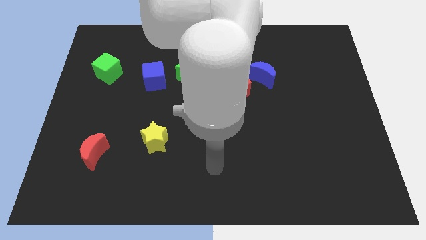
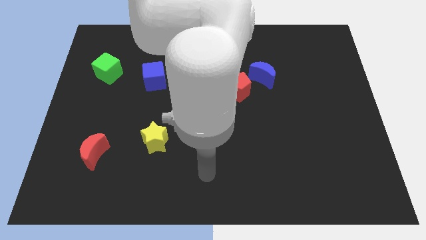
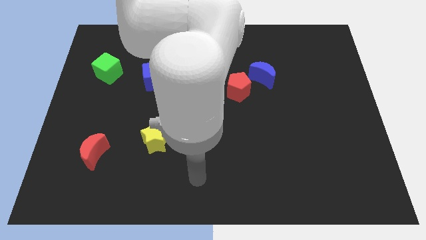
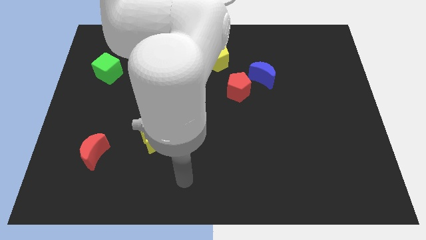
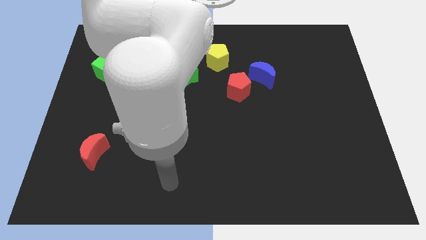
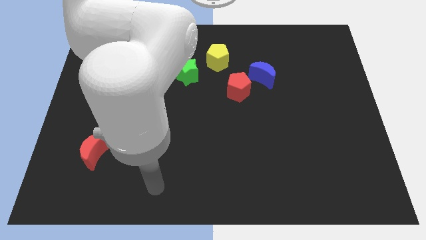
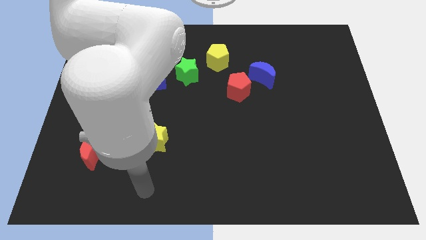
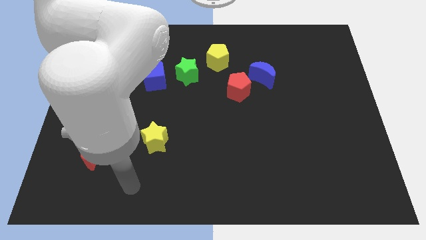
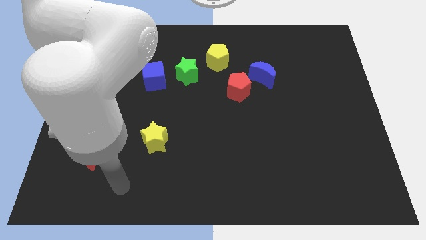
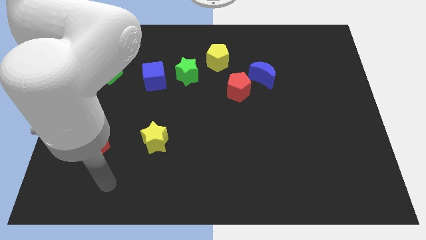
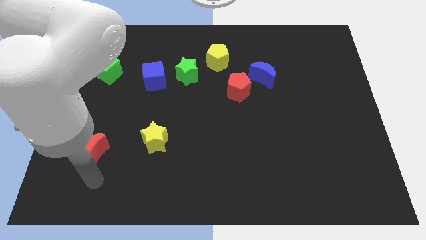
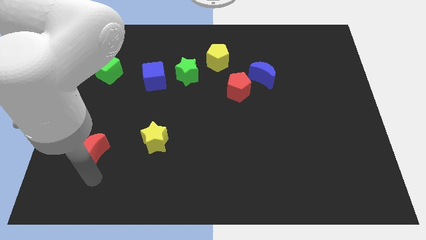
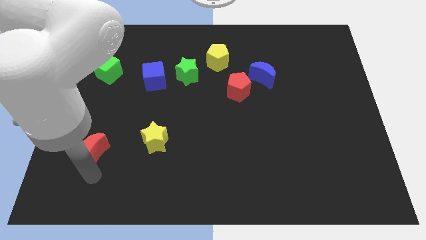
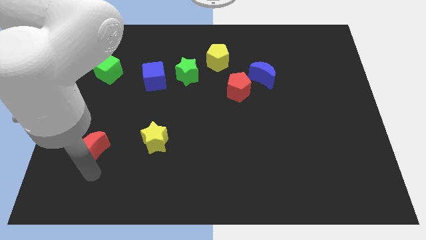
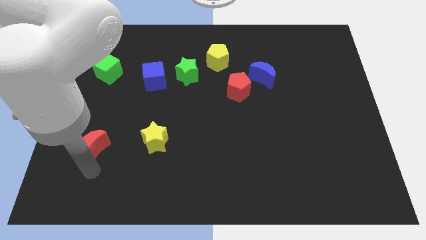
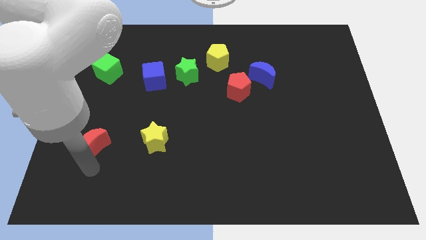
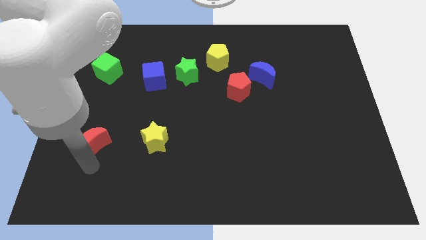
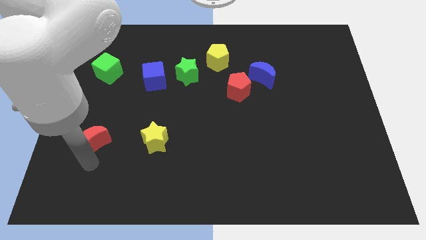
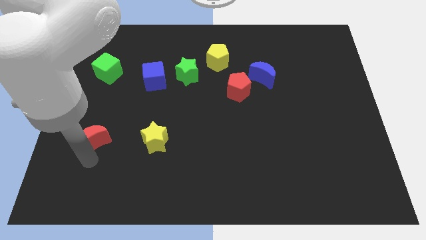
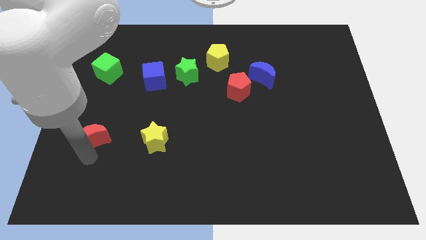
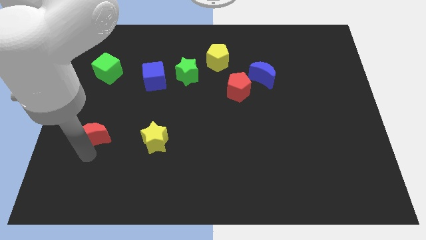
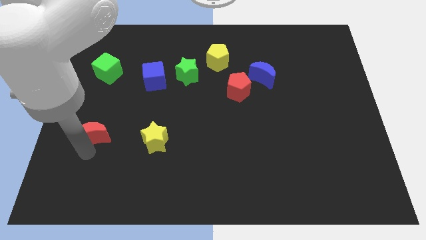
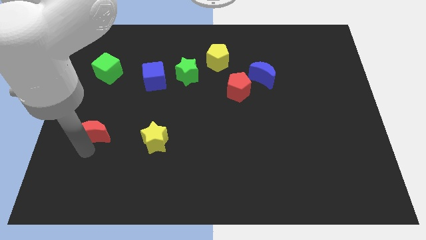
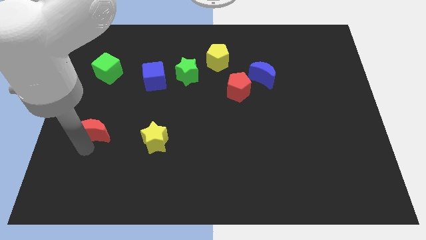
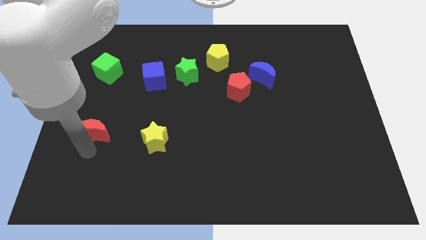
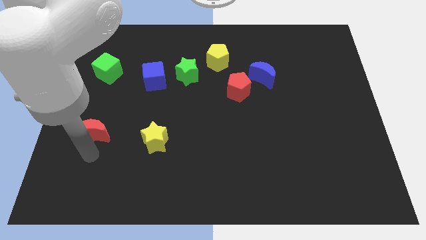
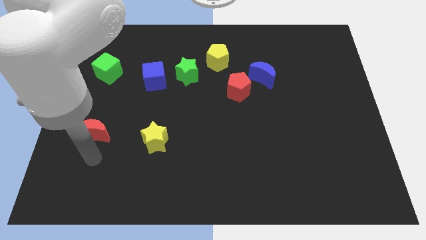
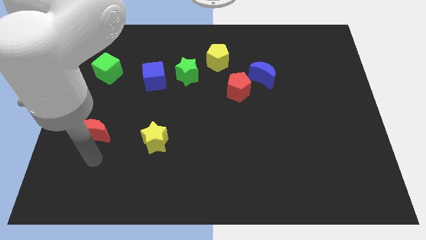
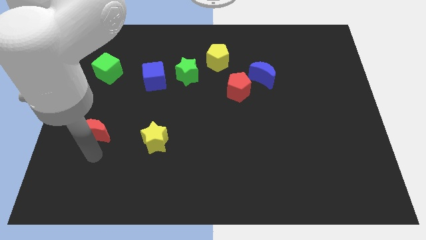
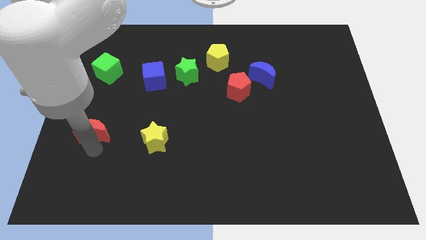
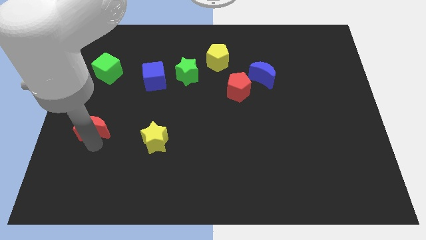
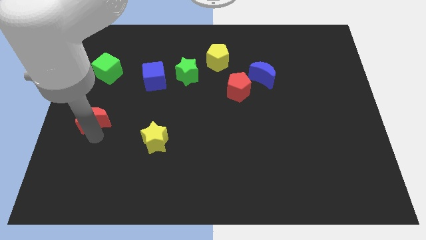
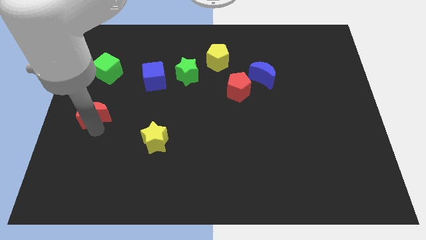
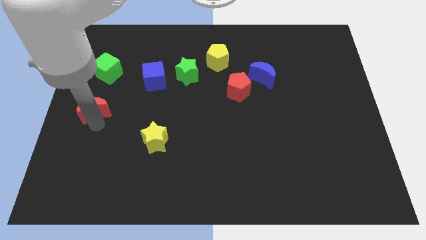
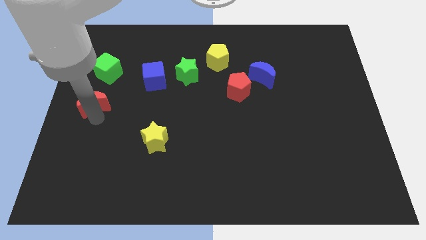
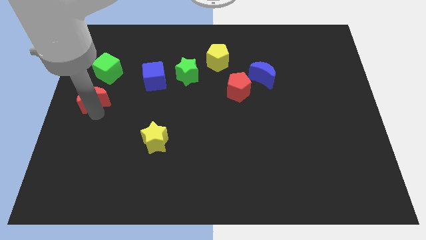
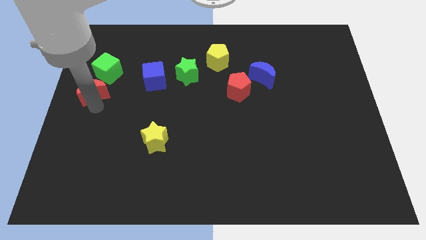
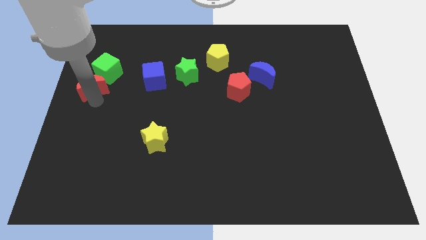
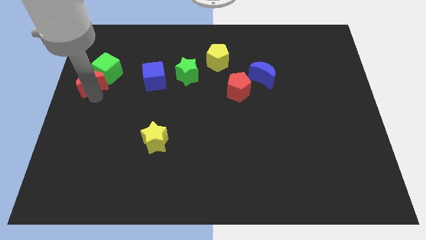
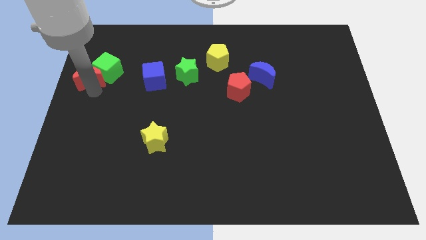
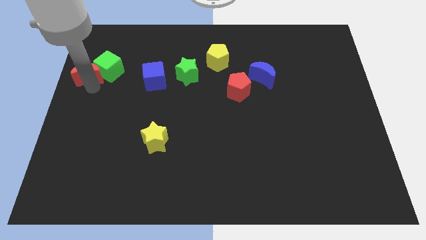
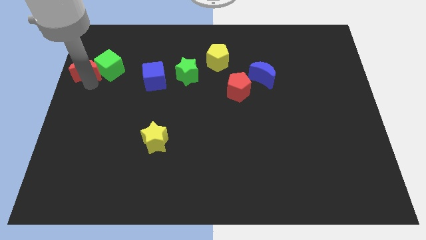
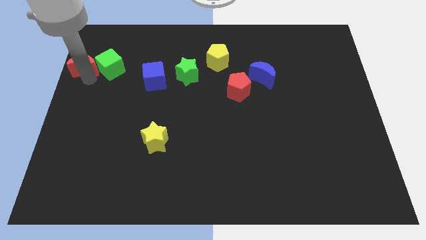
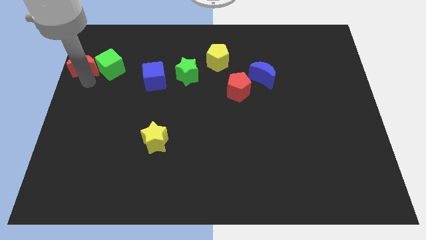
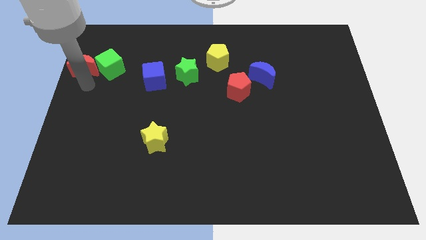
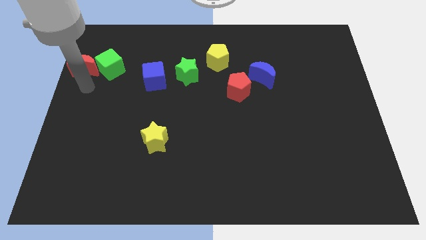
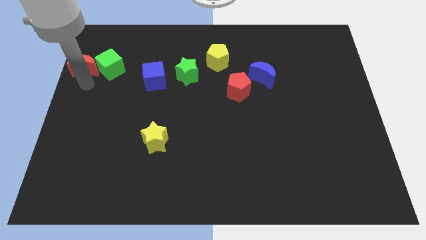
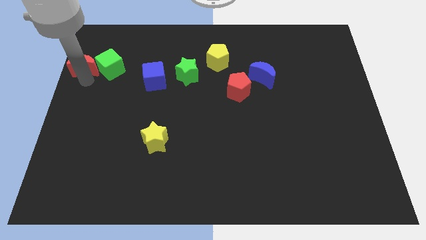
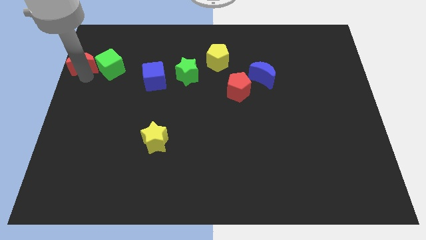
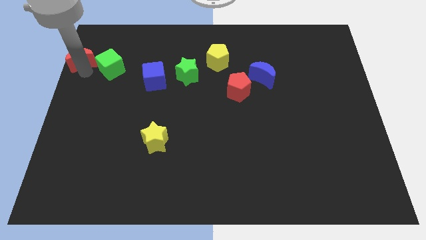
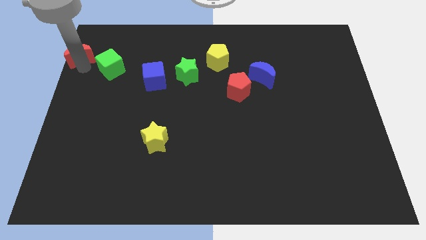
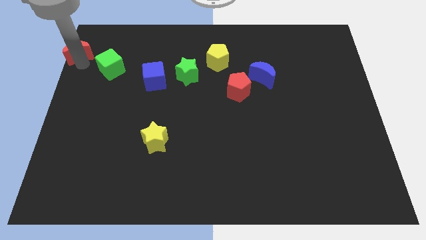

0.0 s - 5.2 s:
push the red moon to the top left corner
